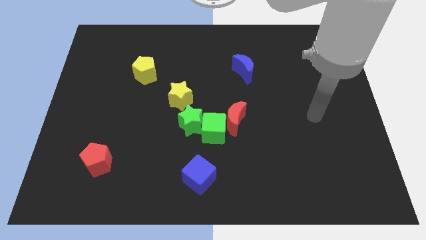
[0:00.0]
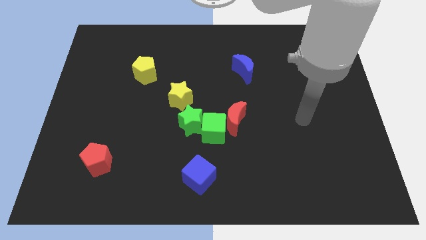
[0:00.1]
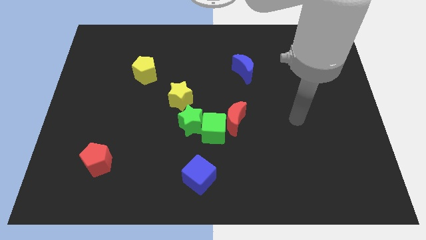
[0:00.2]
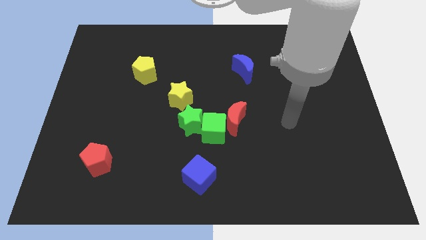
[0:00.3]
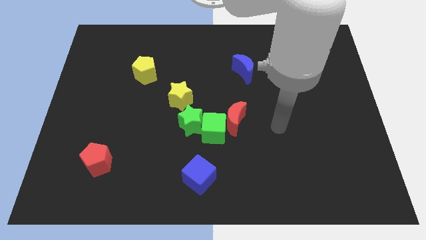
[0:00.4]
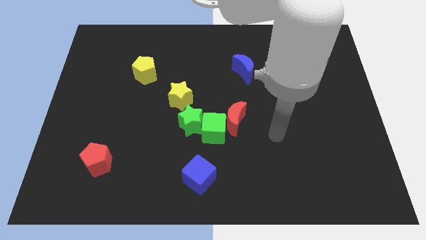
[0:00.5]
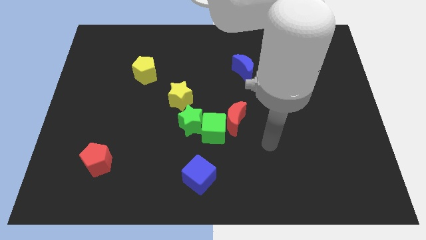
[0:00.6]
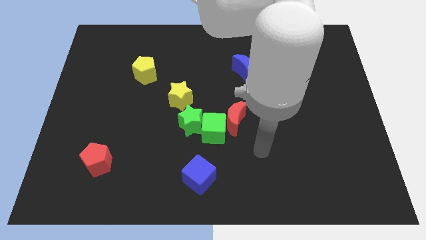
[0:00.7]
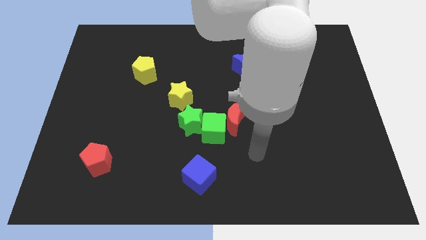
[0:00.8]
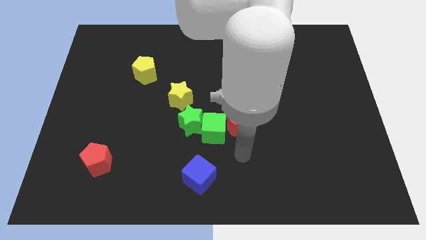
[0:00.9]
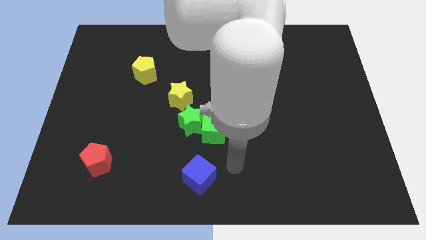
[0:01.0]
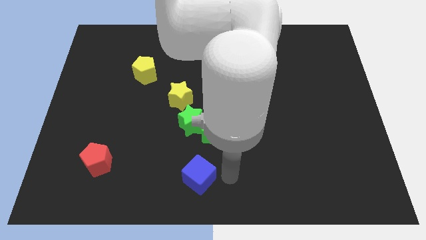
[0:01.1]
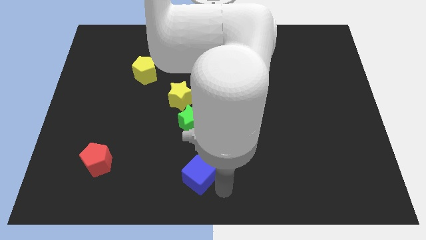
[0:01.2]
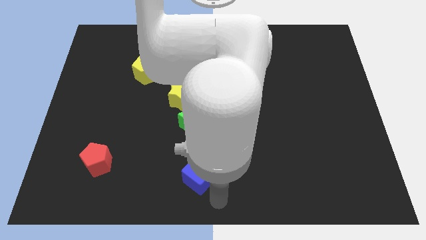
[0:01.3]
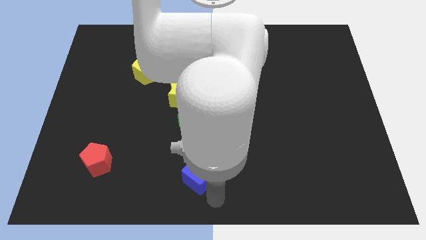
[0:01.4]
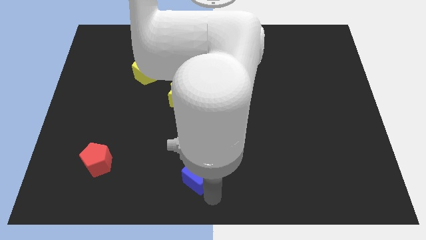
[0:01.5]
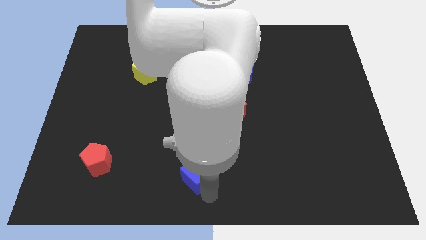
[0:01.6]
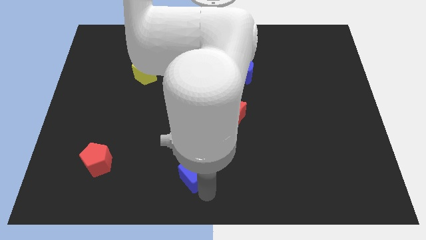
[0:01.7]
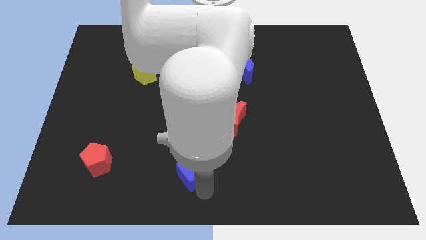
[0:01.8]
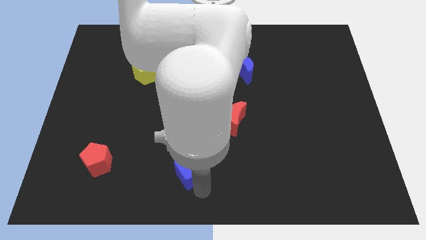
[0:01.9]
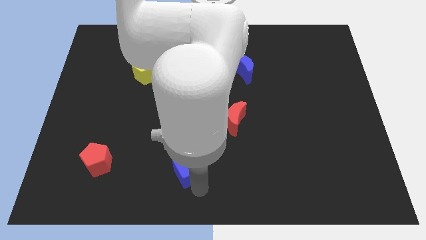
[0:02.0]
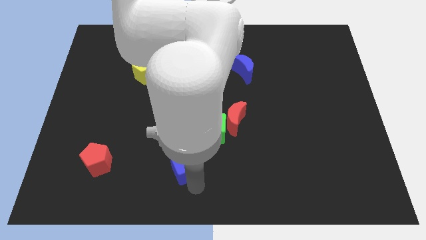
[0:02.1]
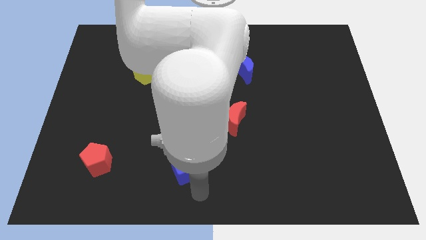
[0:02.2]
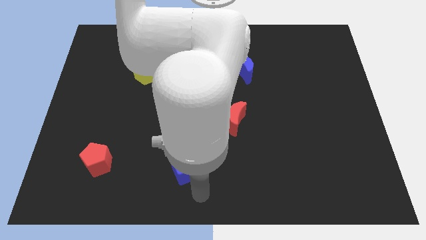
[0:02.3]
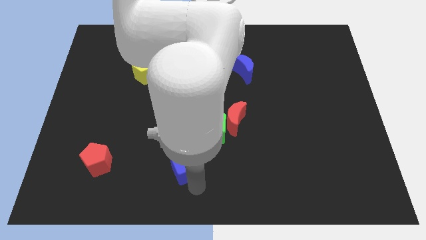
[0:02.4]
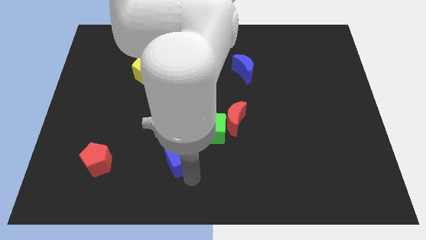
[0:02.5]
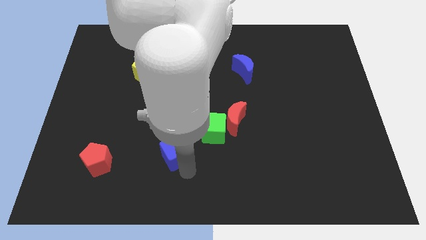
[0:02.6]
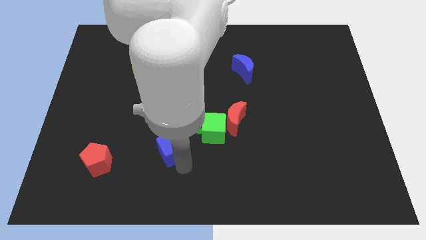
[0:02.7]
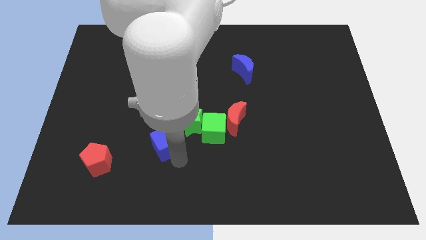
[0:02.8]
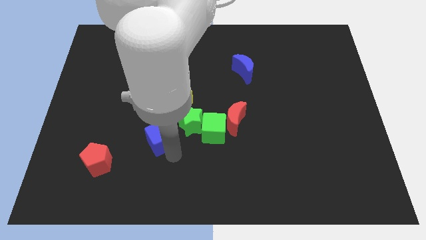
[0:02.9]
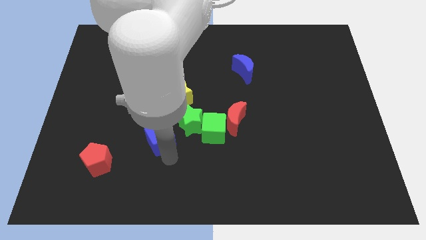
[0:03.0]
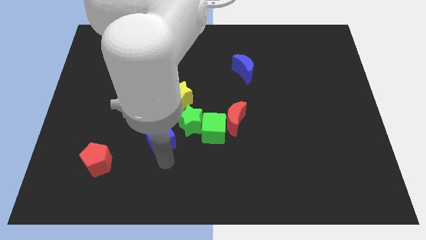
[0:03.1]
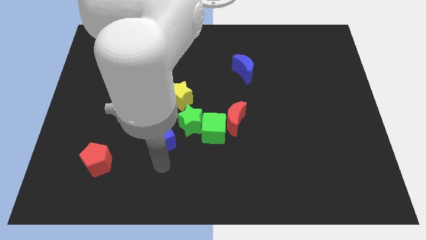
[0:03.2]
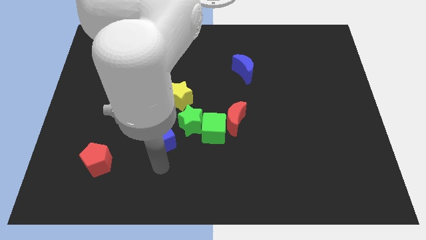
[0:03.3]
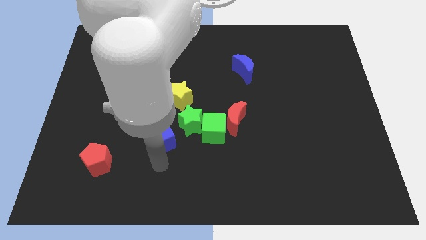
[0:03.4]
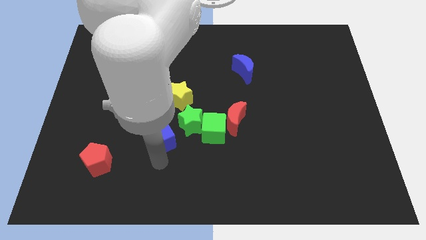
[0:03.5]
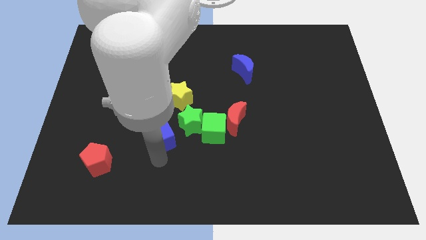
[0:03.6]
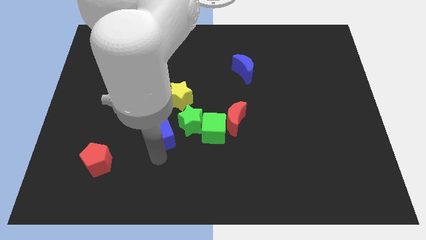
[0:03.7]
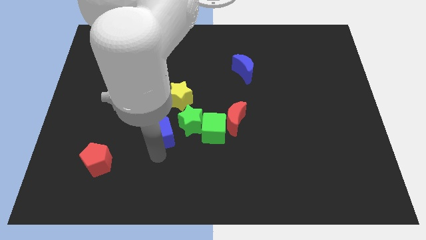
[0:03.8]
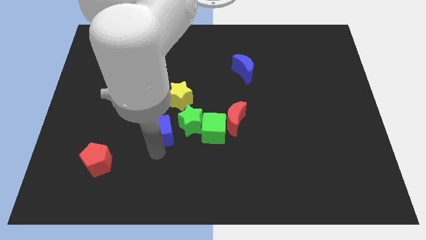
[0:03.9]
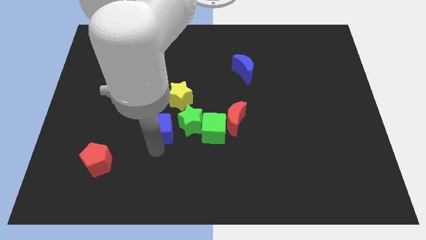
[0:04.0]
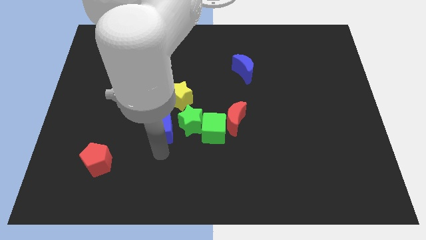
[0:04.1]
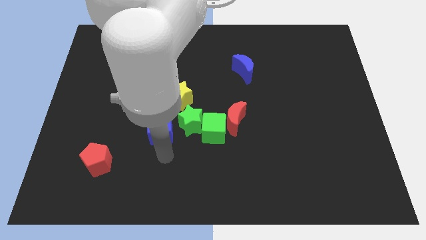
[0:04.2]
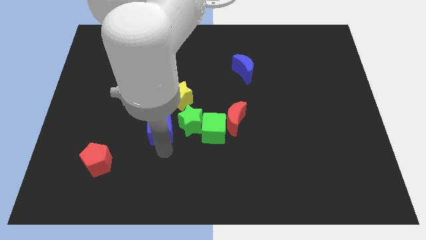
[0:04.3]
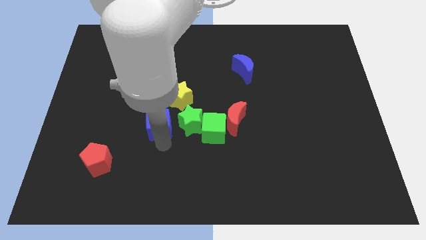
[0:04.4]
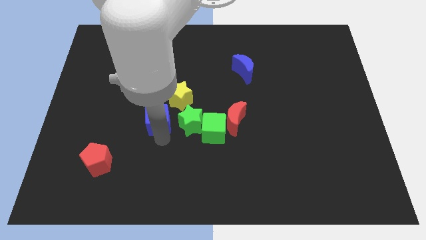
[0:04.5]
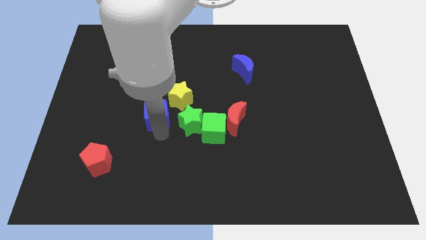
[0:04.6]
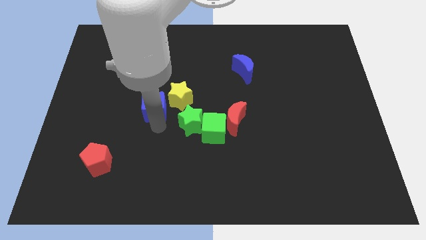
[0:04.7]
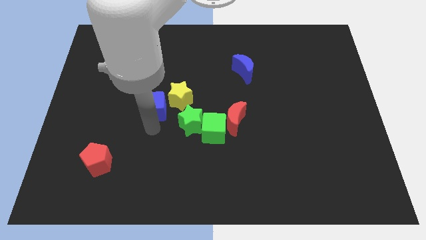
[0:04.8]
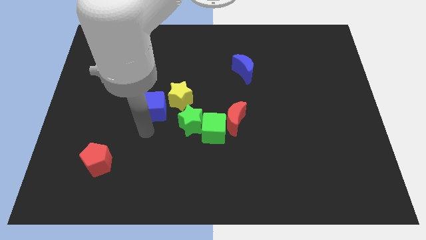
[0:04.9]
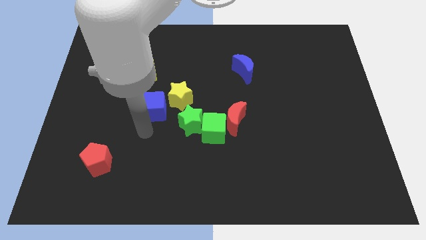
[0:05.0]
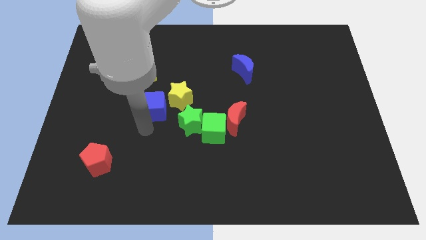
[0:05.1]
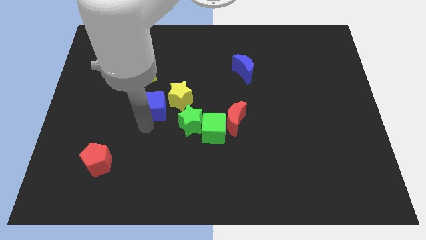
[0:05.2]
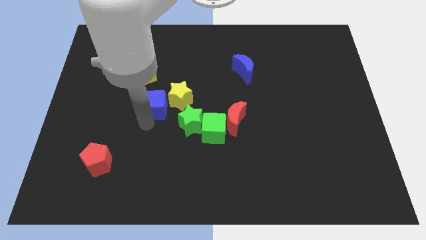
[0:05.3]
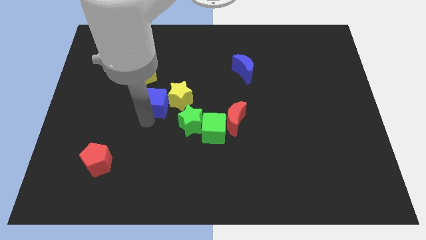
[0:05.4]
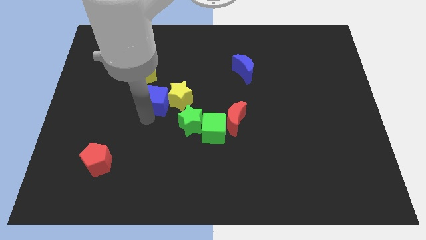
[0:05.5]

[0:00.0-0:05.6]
put the blue cube to the bottom right of the yellow pentagon

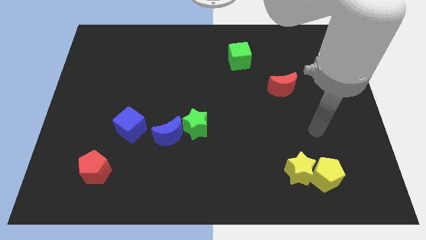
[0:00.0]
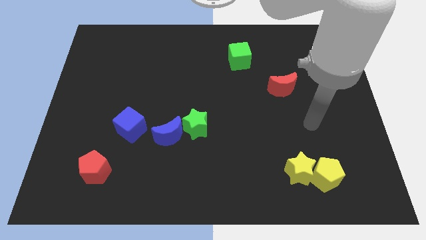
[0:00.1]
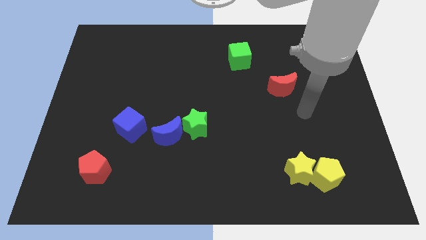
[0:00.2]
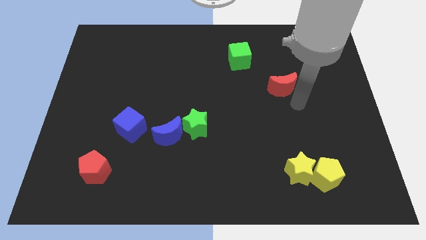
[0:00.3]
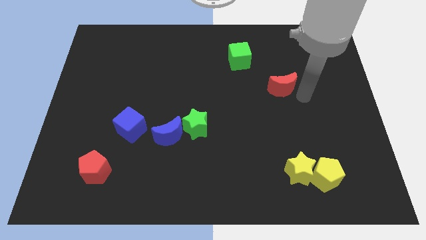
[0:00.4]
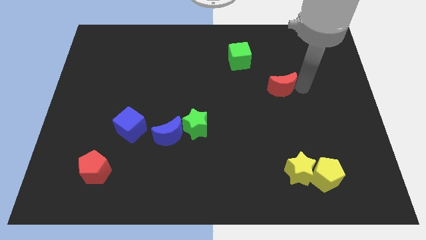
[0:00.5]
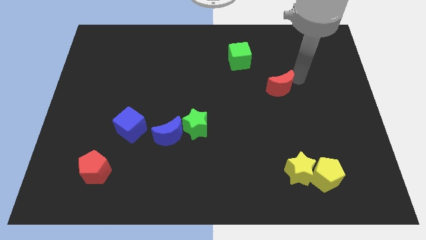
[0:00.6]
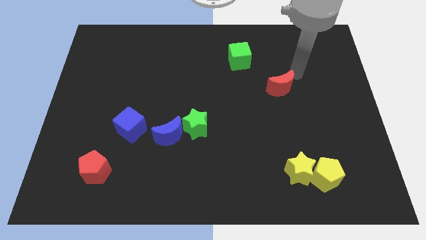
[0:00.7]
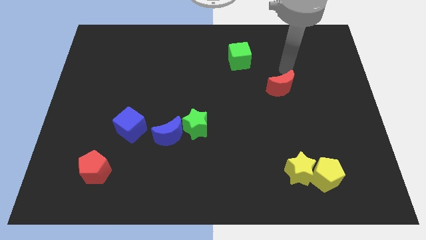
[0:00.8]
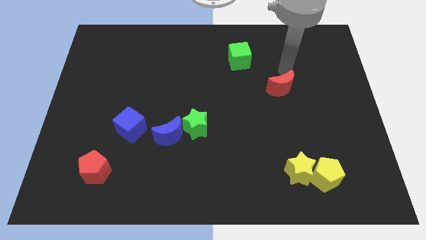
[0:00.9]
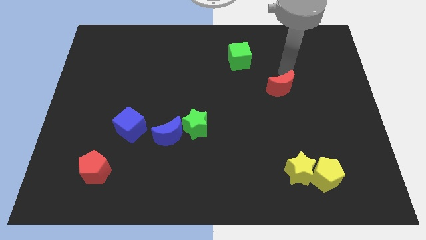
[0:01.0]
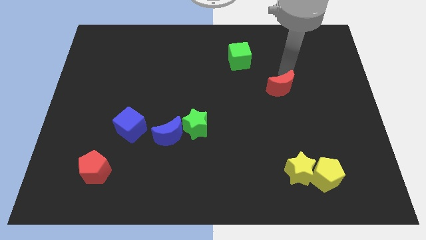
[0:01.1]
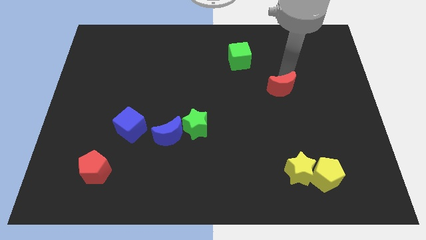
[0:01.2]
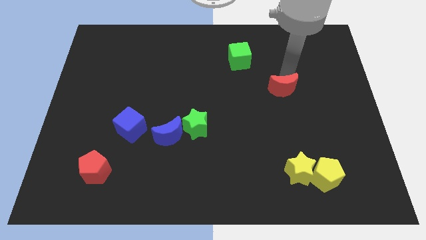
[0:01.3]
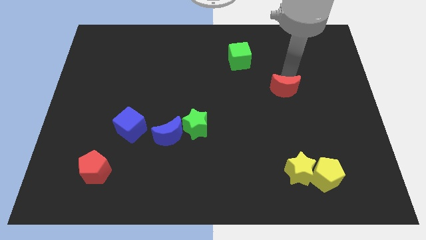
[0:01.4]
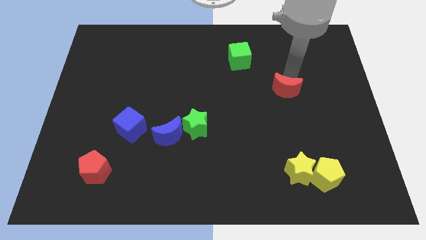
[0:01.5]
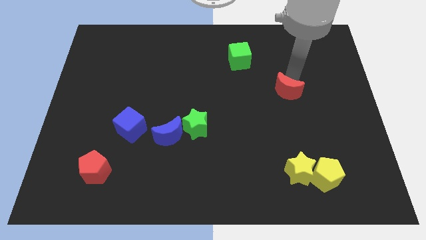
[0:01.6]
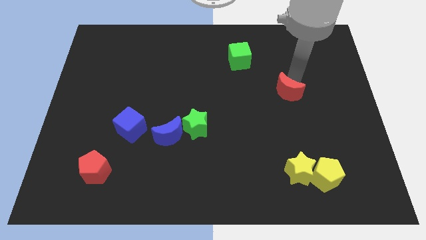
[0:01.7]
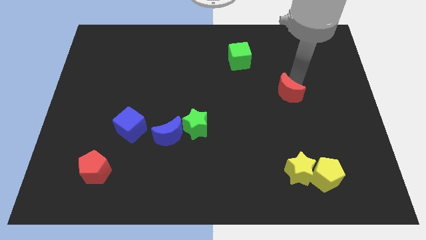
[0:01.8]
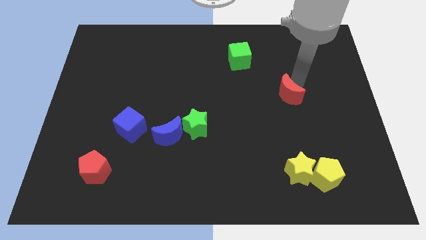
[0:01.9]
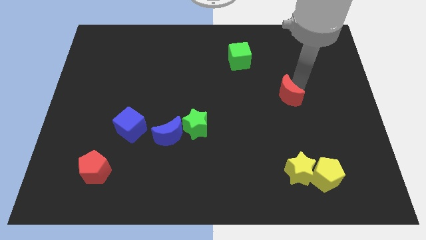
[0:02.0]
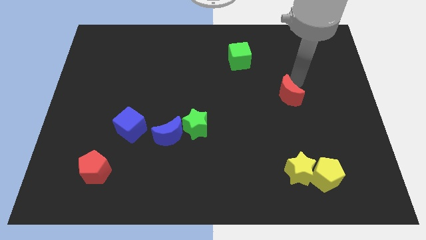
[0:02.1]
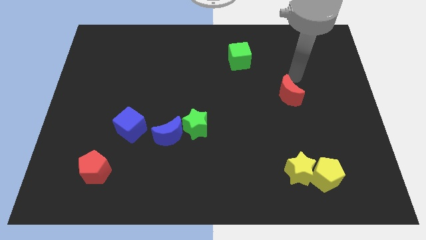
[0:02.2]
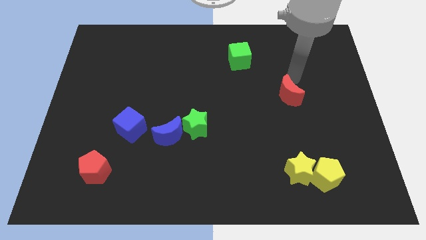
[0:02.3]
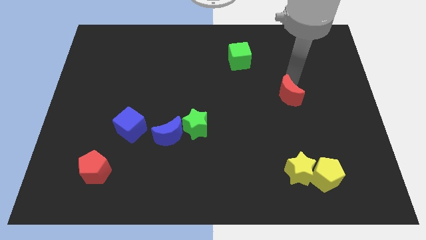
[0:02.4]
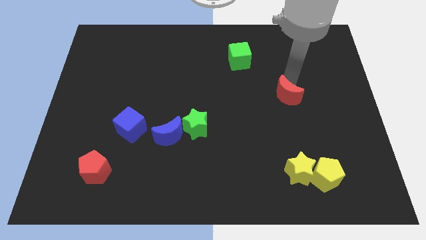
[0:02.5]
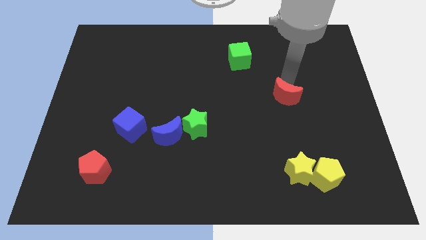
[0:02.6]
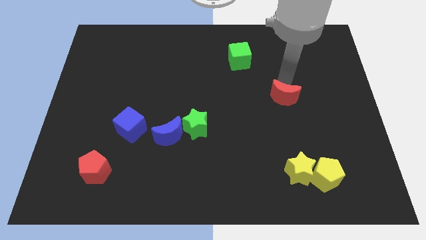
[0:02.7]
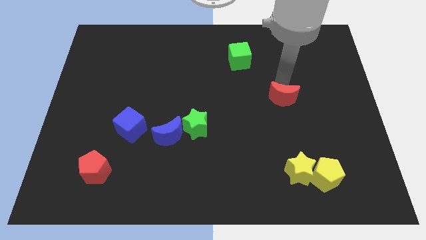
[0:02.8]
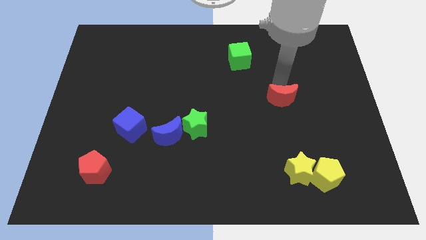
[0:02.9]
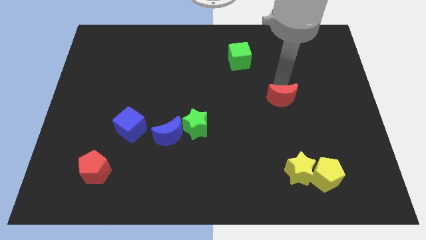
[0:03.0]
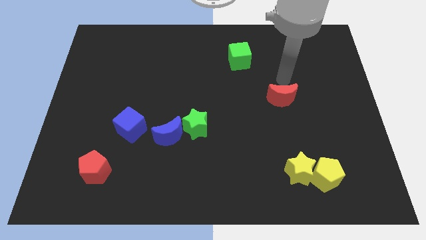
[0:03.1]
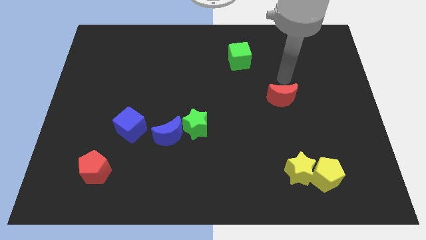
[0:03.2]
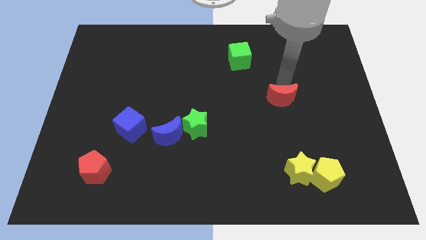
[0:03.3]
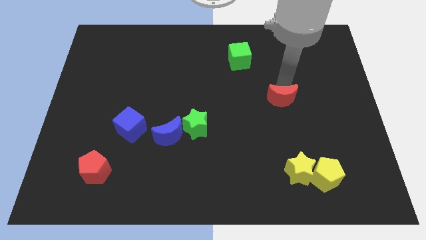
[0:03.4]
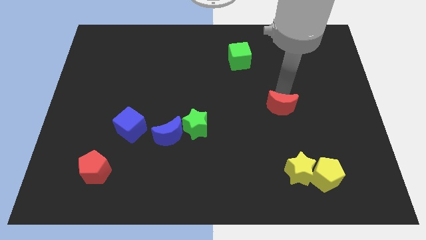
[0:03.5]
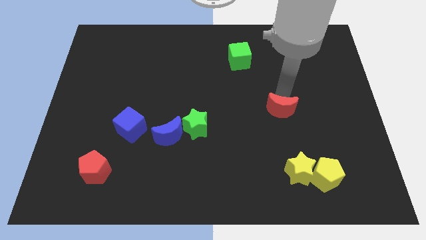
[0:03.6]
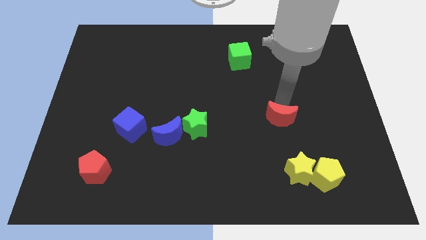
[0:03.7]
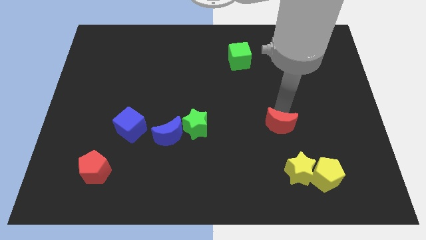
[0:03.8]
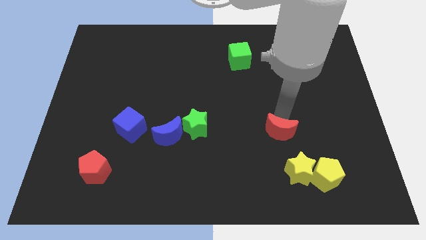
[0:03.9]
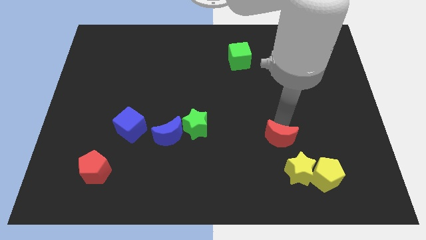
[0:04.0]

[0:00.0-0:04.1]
move the red moon to the top left of the yellow star
